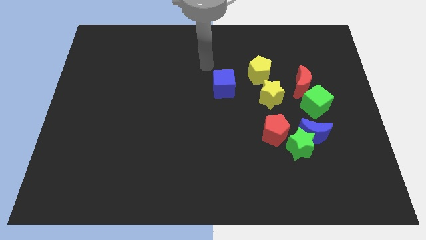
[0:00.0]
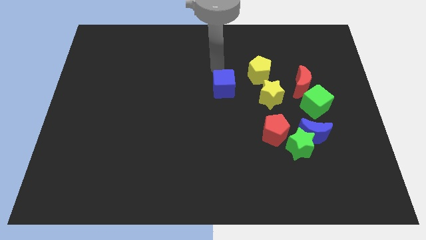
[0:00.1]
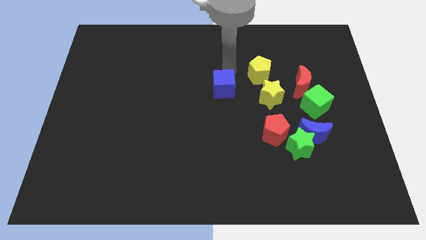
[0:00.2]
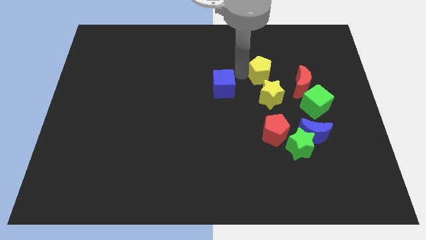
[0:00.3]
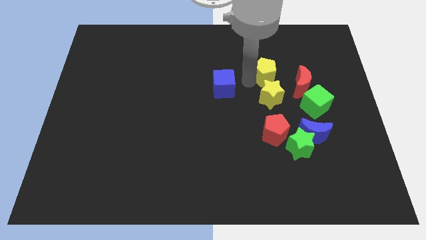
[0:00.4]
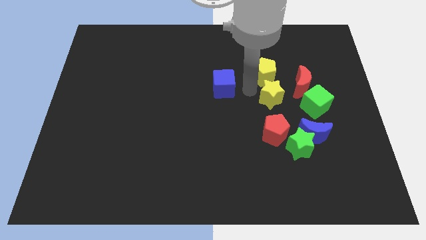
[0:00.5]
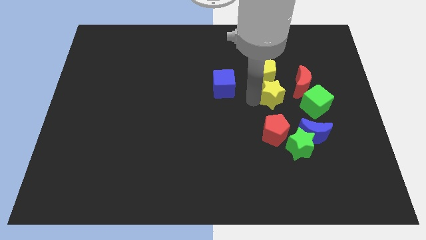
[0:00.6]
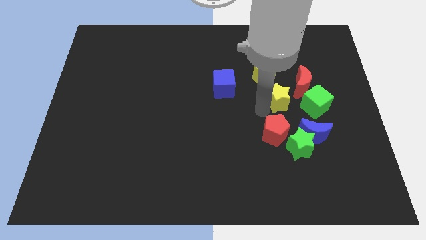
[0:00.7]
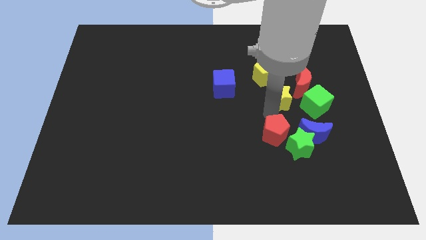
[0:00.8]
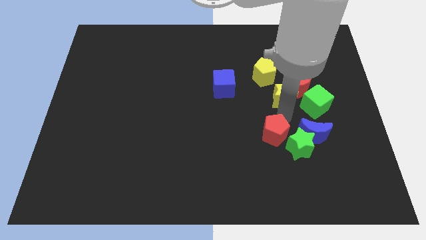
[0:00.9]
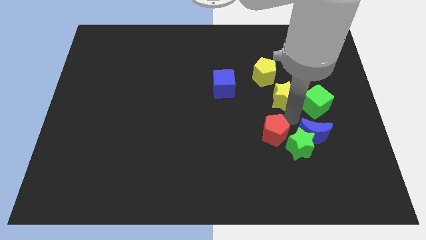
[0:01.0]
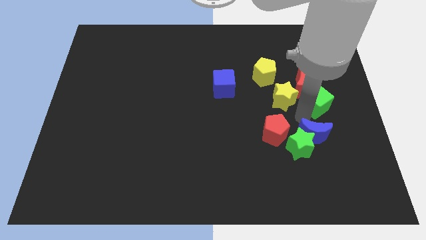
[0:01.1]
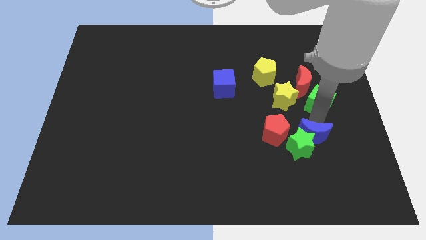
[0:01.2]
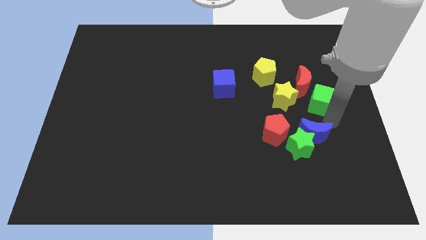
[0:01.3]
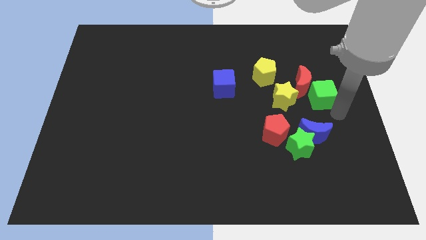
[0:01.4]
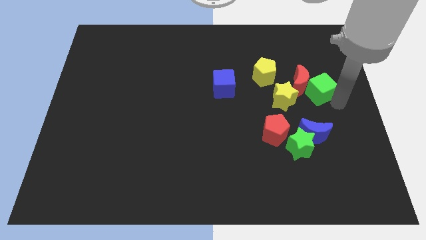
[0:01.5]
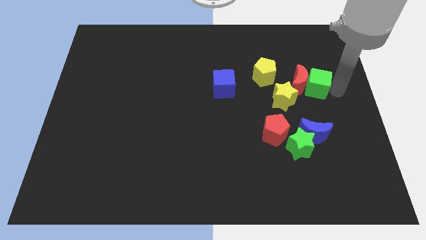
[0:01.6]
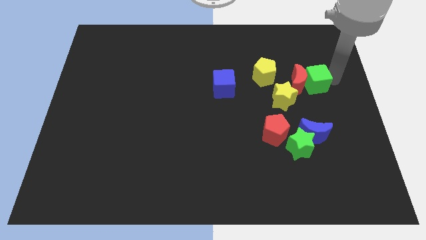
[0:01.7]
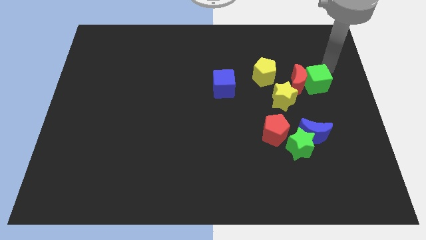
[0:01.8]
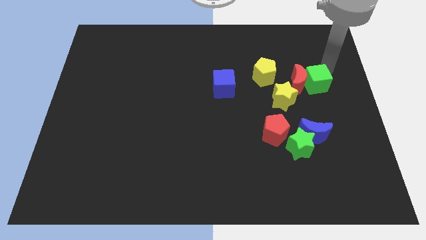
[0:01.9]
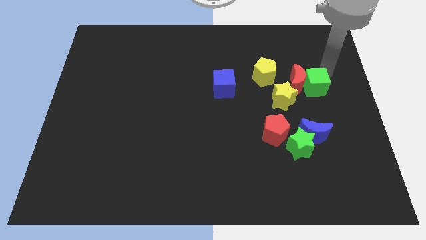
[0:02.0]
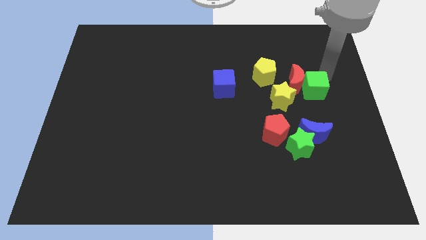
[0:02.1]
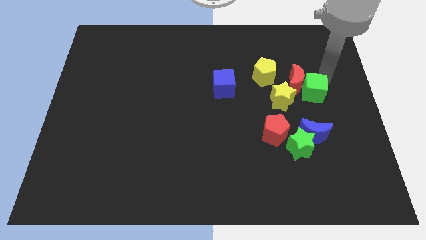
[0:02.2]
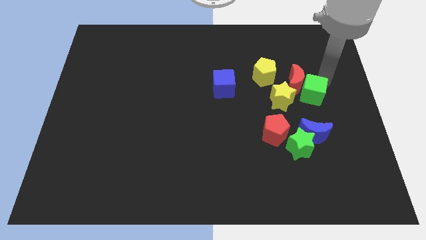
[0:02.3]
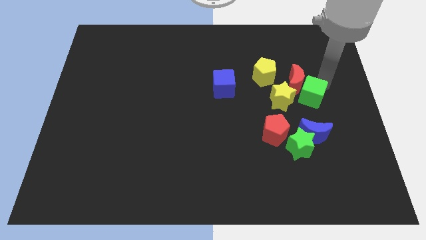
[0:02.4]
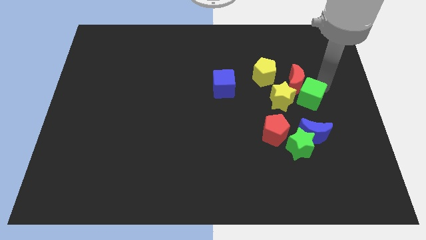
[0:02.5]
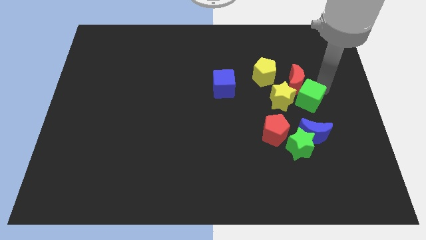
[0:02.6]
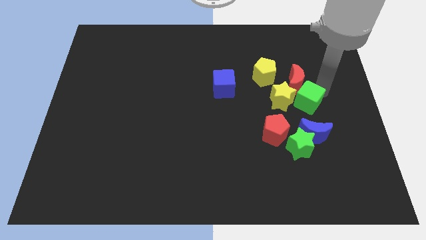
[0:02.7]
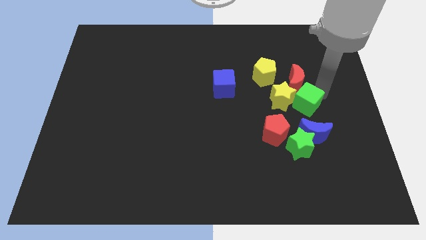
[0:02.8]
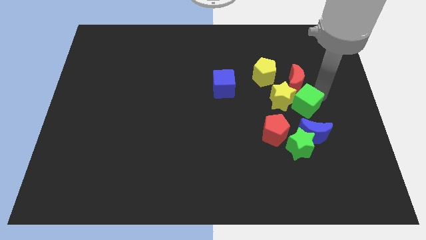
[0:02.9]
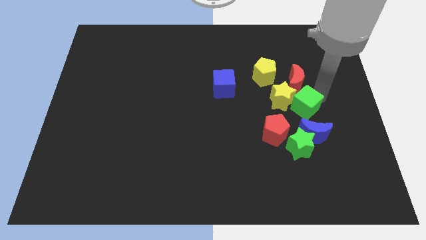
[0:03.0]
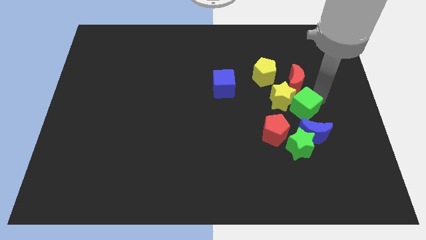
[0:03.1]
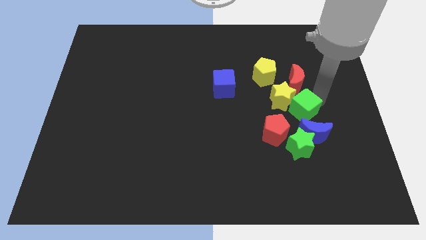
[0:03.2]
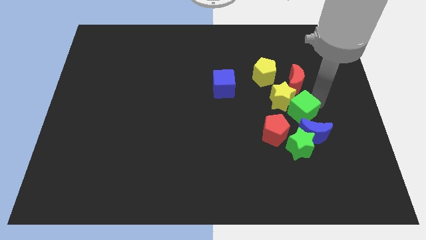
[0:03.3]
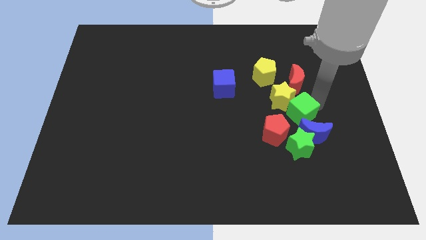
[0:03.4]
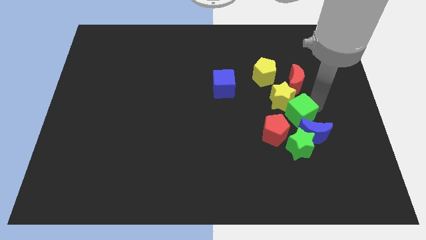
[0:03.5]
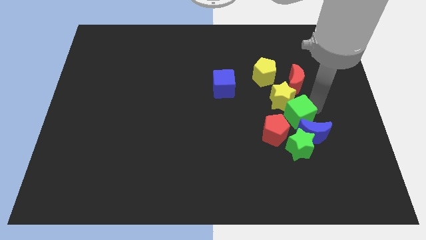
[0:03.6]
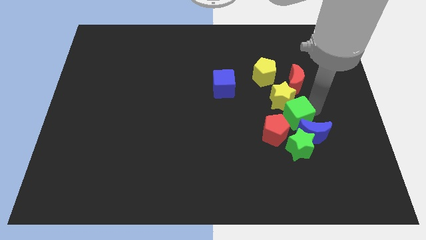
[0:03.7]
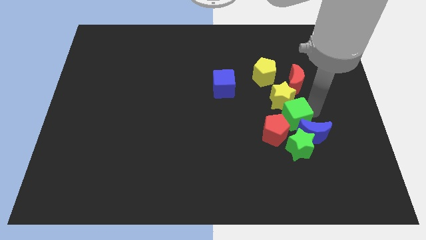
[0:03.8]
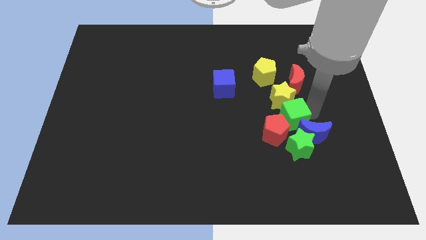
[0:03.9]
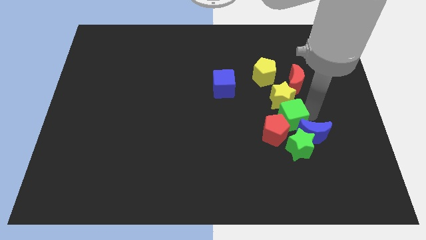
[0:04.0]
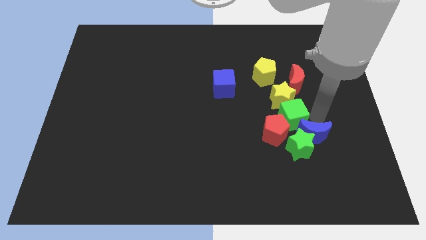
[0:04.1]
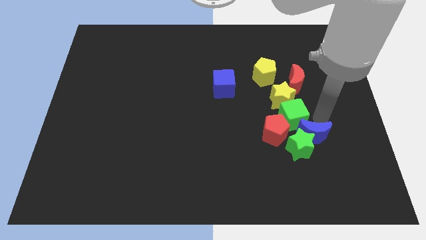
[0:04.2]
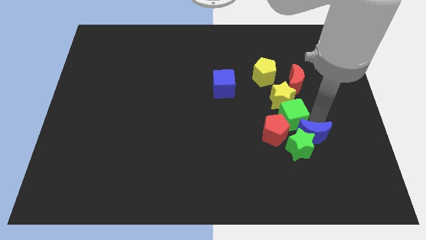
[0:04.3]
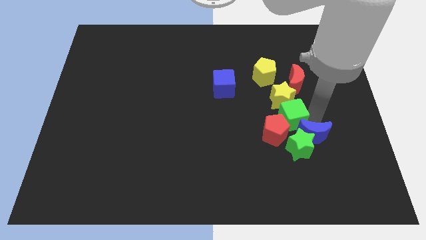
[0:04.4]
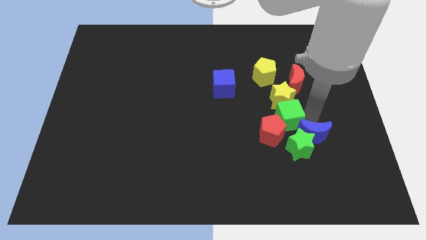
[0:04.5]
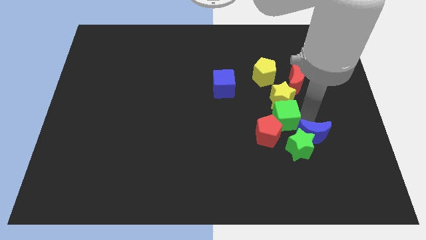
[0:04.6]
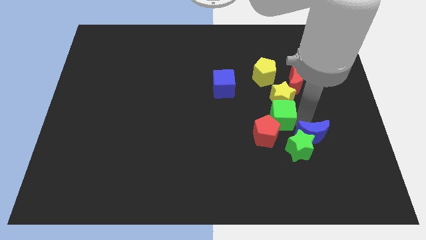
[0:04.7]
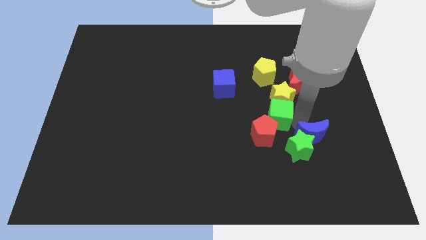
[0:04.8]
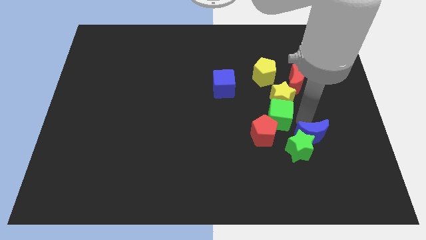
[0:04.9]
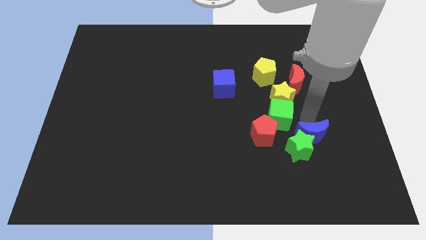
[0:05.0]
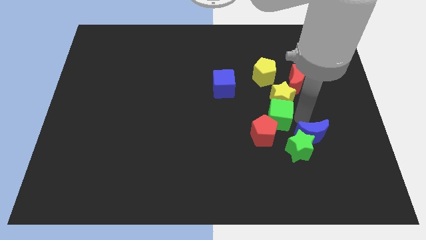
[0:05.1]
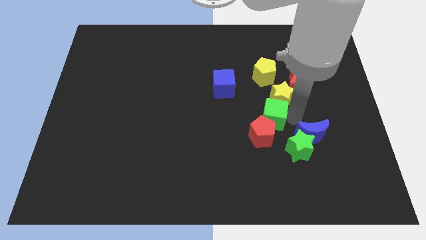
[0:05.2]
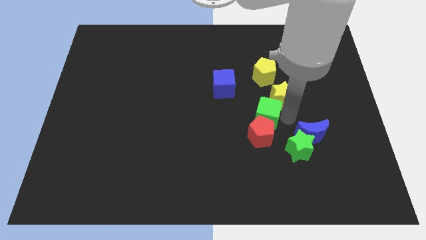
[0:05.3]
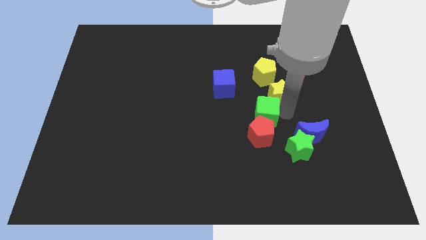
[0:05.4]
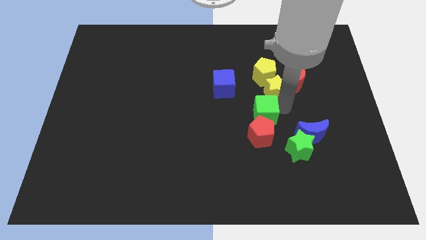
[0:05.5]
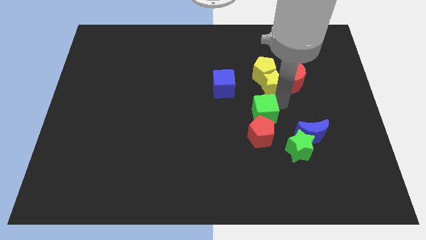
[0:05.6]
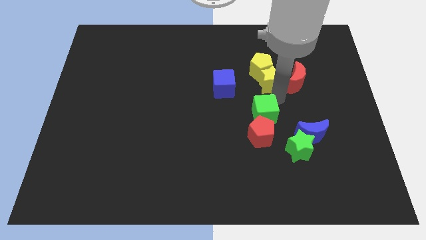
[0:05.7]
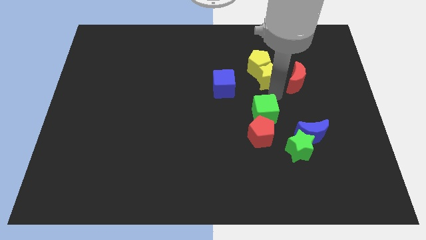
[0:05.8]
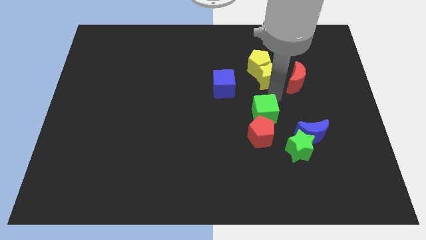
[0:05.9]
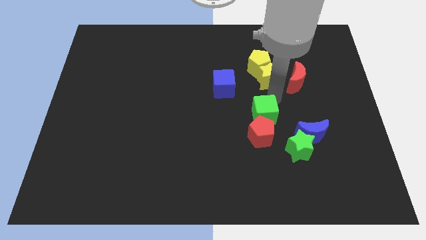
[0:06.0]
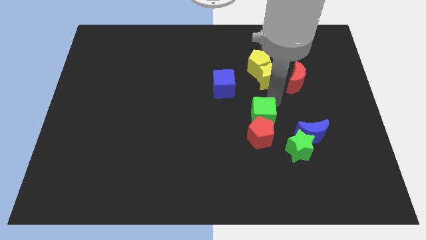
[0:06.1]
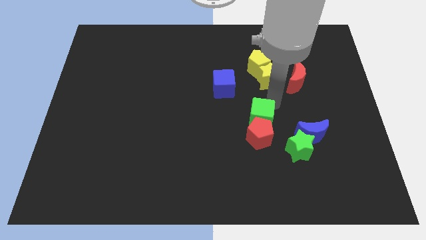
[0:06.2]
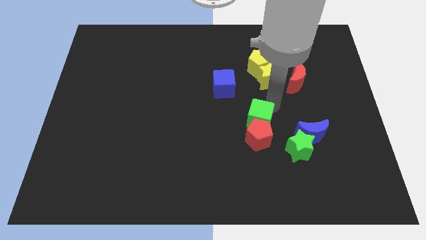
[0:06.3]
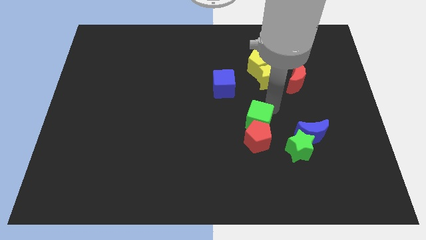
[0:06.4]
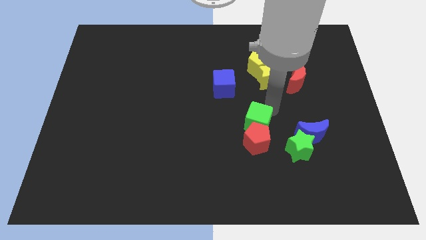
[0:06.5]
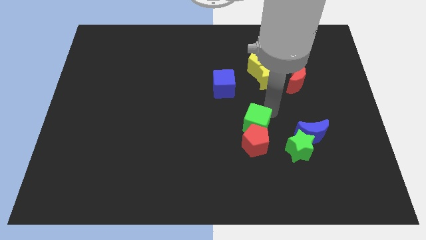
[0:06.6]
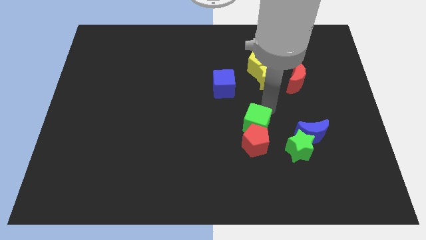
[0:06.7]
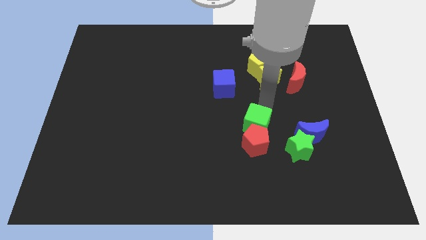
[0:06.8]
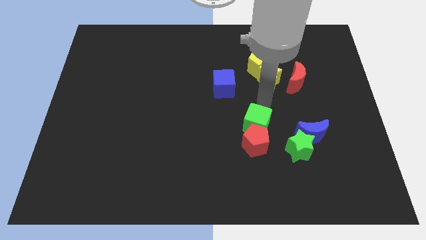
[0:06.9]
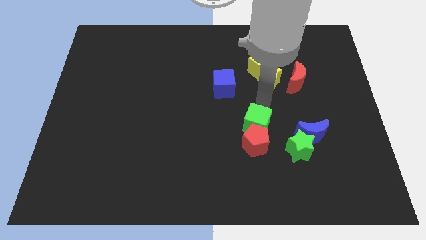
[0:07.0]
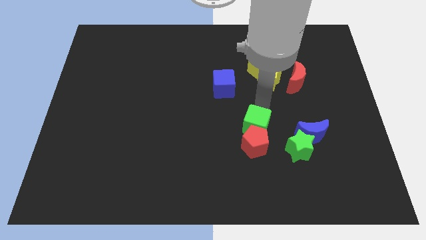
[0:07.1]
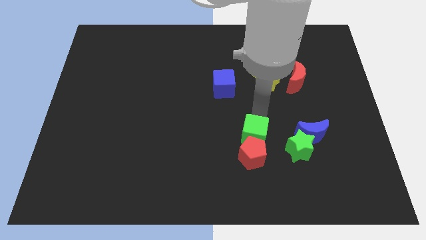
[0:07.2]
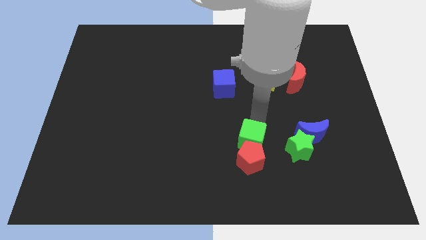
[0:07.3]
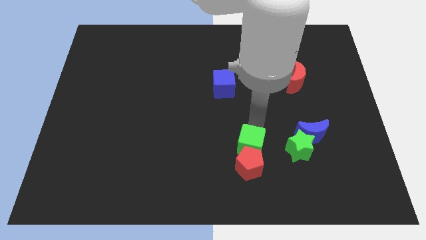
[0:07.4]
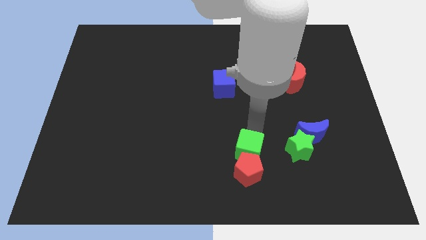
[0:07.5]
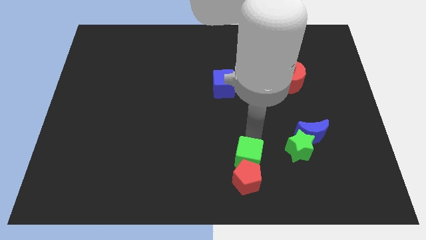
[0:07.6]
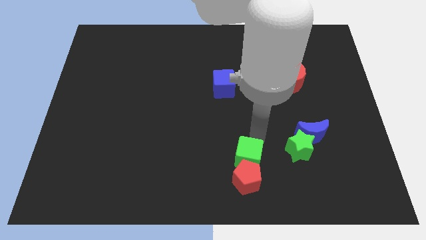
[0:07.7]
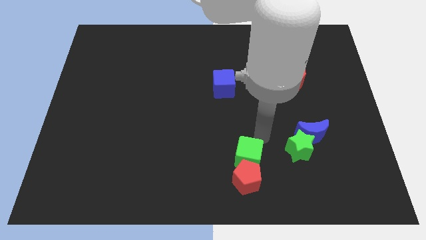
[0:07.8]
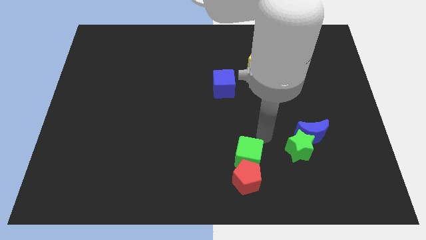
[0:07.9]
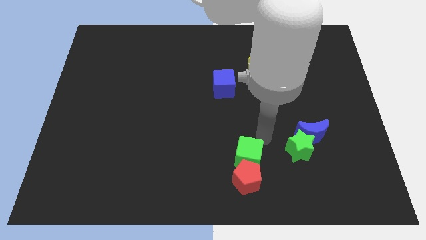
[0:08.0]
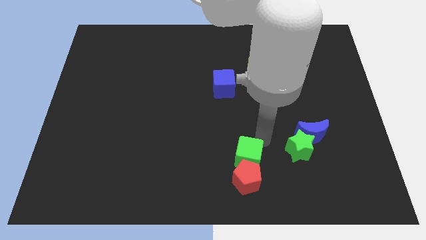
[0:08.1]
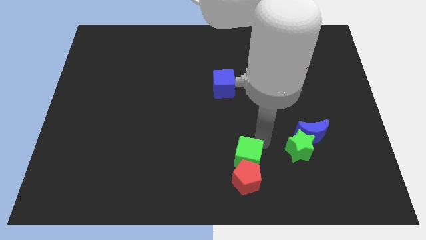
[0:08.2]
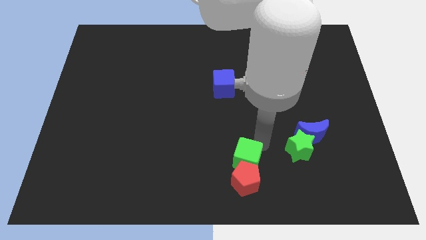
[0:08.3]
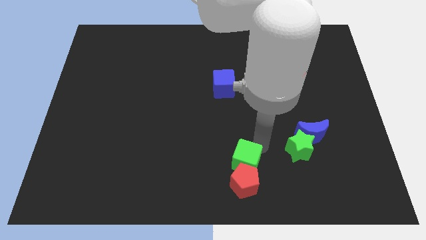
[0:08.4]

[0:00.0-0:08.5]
slide the green cube to the bottom side
